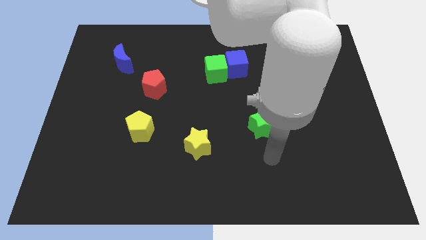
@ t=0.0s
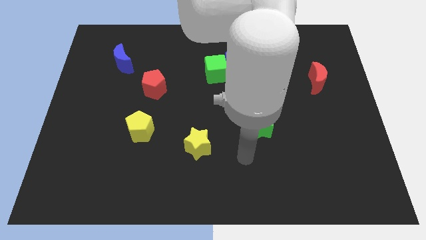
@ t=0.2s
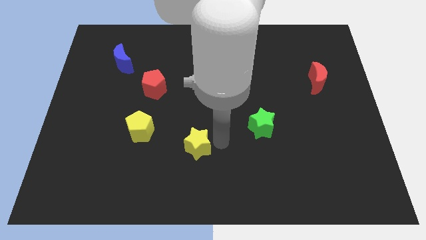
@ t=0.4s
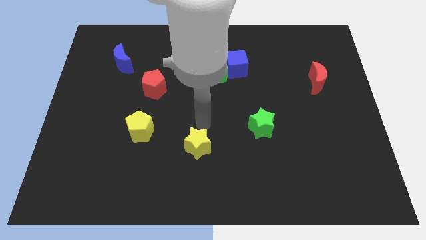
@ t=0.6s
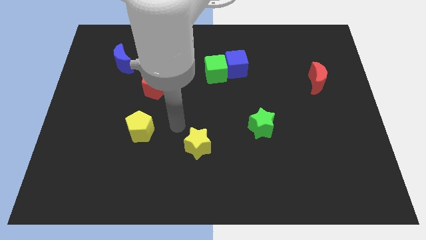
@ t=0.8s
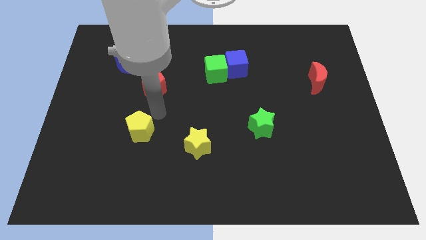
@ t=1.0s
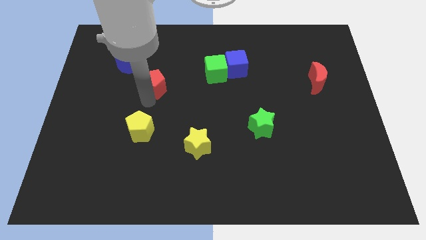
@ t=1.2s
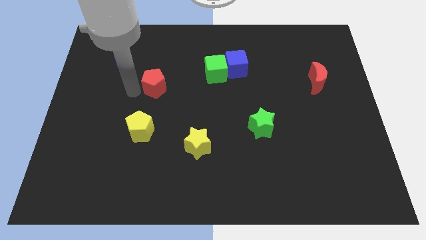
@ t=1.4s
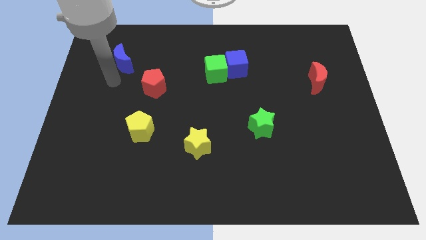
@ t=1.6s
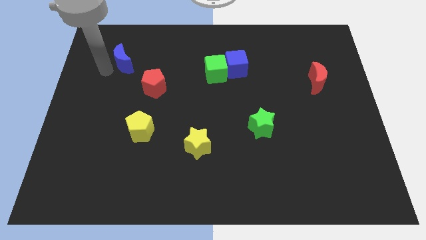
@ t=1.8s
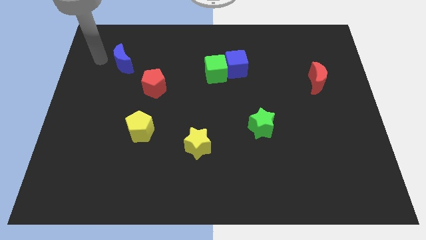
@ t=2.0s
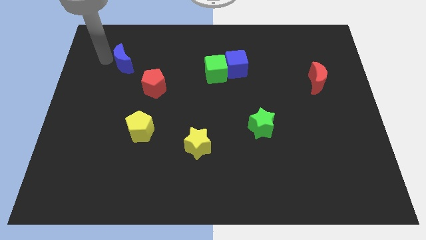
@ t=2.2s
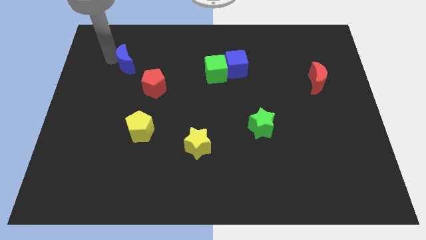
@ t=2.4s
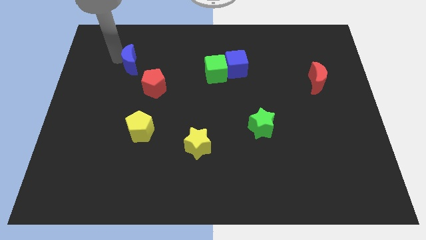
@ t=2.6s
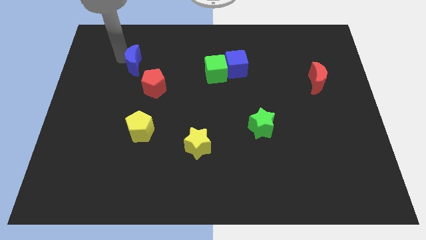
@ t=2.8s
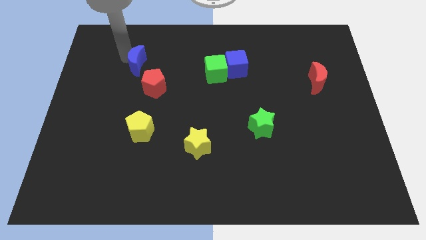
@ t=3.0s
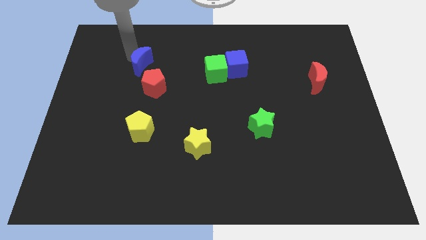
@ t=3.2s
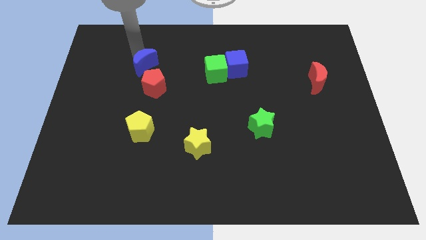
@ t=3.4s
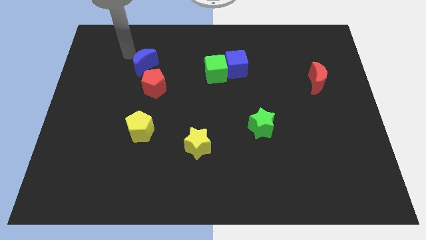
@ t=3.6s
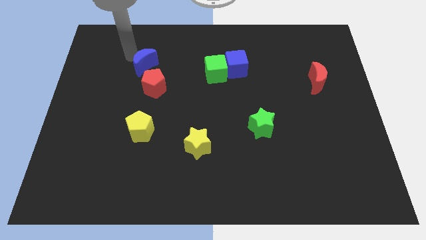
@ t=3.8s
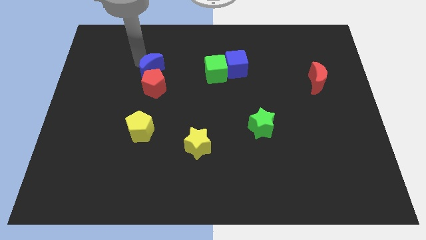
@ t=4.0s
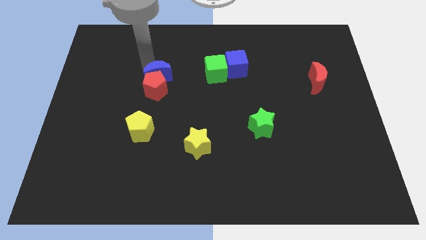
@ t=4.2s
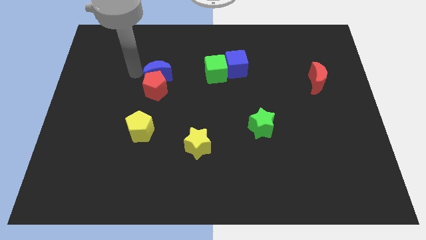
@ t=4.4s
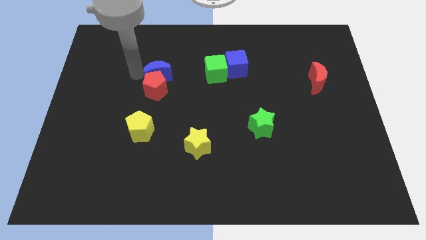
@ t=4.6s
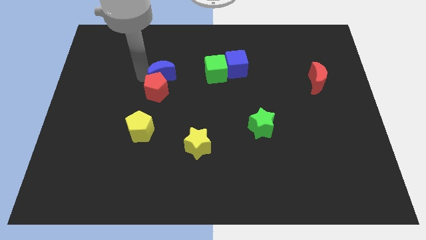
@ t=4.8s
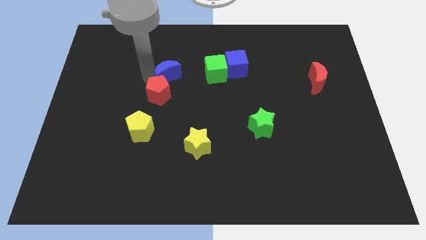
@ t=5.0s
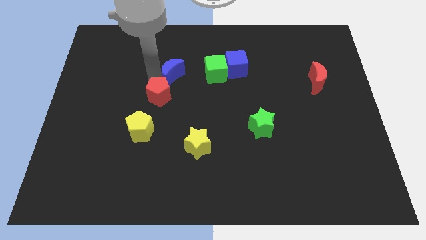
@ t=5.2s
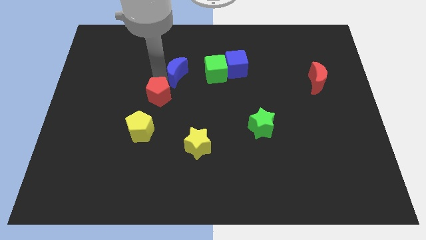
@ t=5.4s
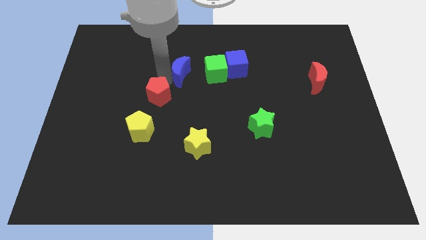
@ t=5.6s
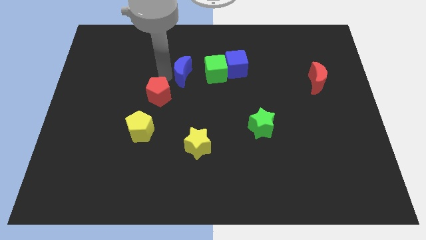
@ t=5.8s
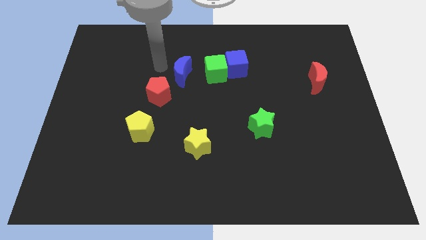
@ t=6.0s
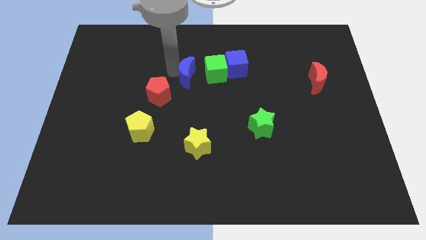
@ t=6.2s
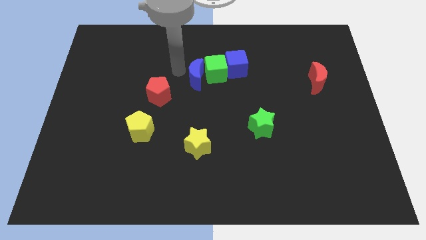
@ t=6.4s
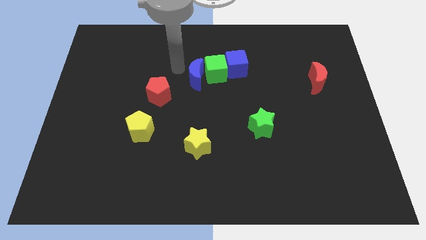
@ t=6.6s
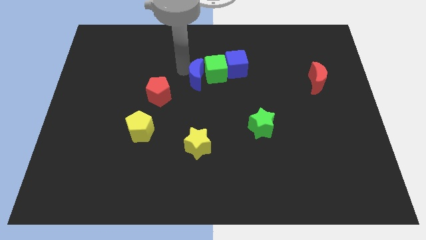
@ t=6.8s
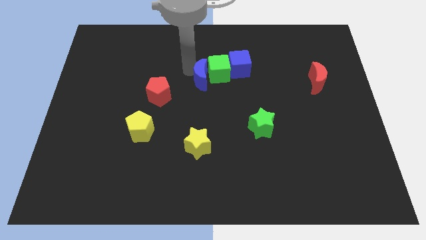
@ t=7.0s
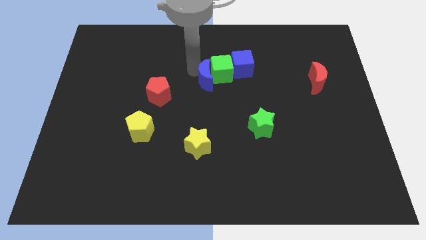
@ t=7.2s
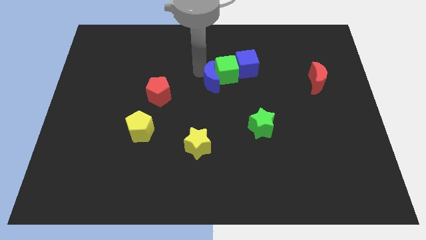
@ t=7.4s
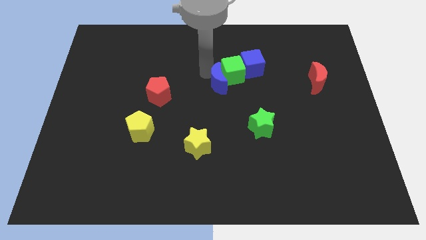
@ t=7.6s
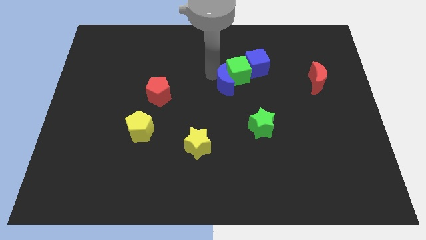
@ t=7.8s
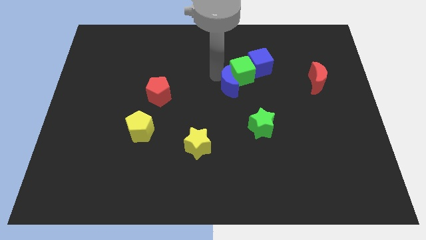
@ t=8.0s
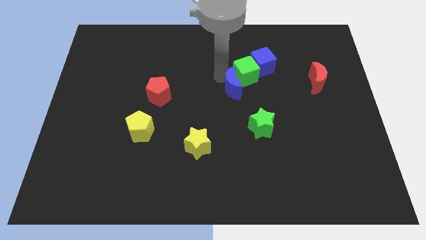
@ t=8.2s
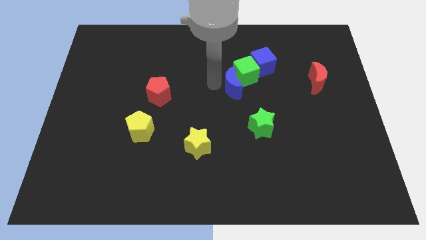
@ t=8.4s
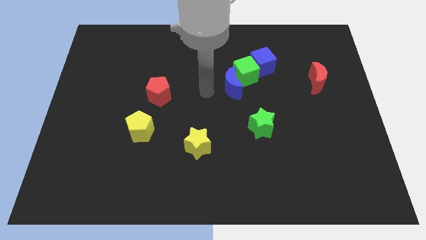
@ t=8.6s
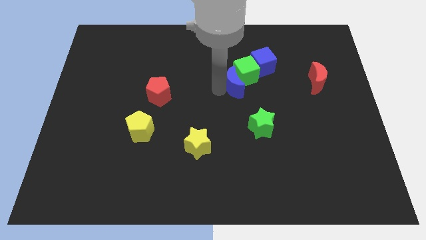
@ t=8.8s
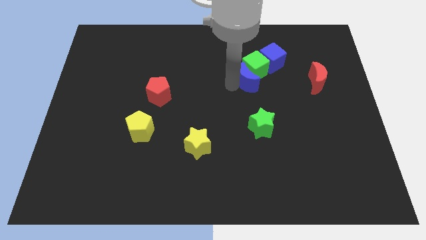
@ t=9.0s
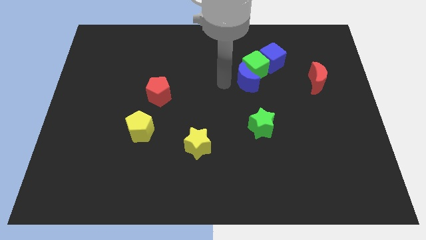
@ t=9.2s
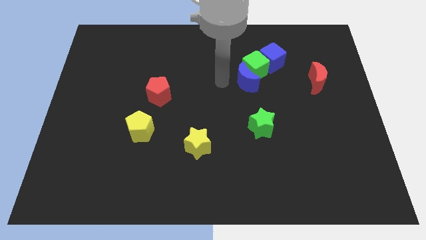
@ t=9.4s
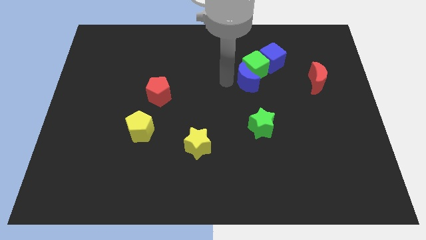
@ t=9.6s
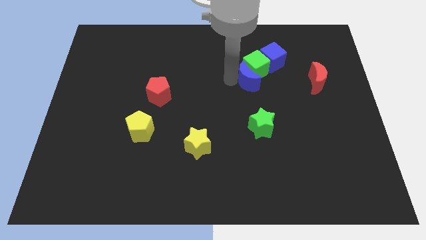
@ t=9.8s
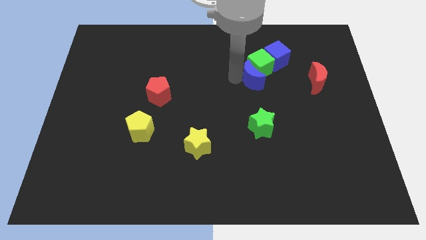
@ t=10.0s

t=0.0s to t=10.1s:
slide the blue moon left of the red moon

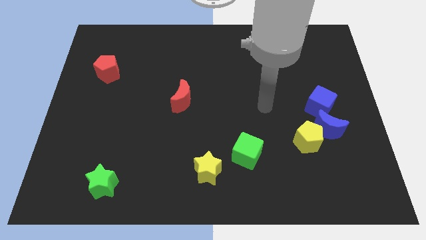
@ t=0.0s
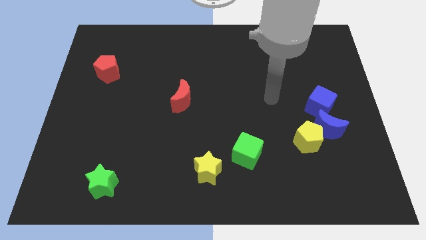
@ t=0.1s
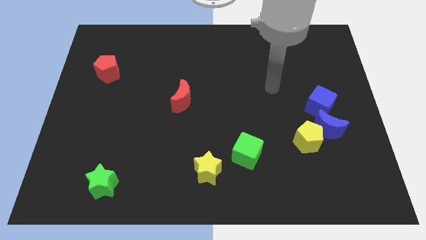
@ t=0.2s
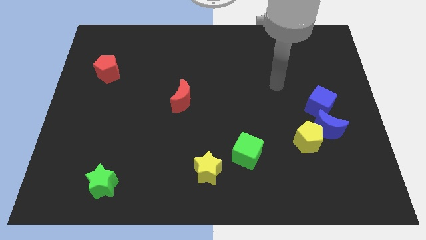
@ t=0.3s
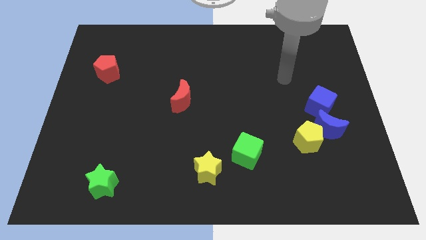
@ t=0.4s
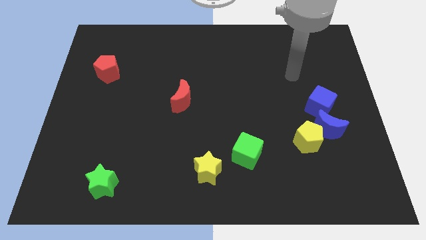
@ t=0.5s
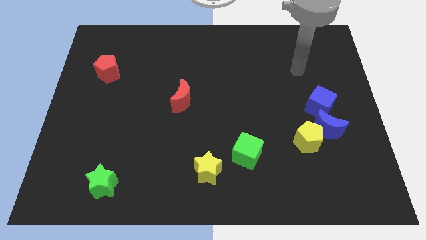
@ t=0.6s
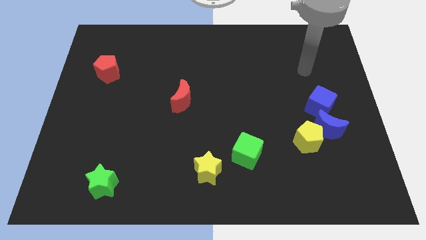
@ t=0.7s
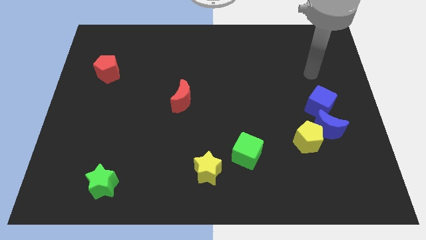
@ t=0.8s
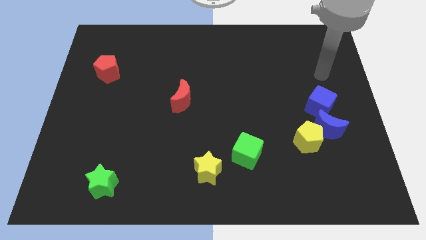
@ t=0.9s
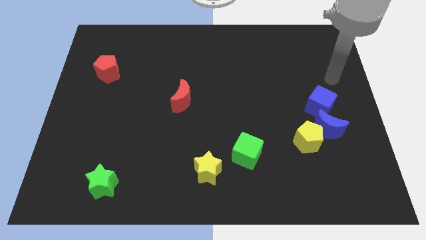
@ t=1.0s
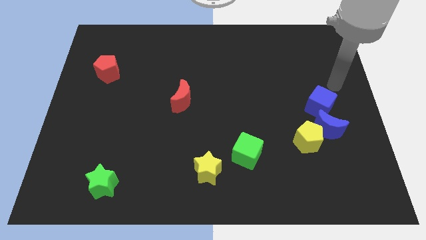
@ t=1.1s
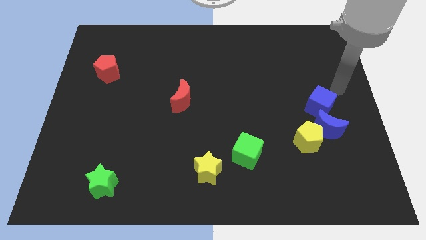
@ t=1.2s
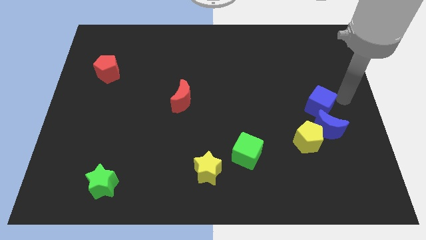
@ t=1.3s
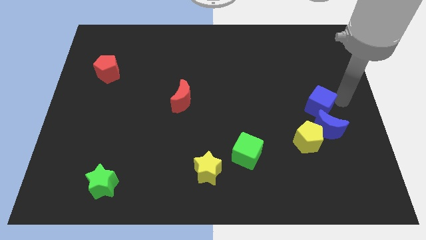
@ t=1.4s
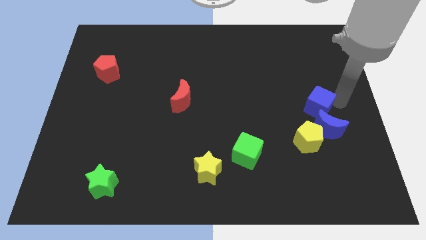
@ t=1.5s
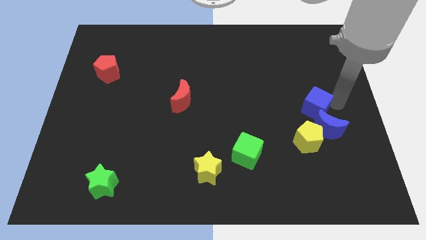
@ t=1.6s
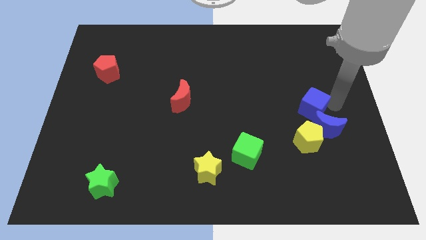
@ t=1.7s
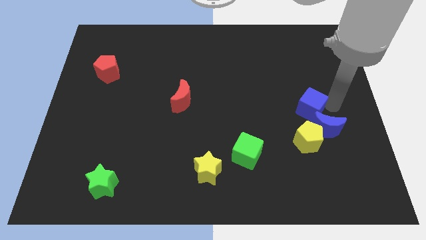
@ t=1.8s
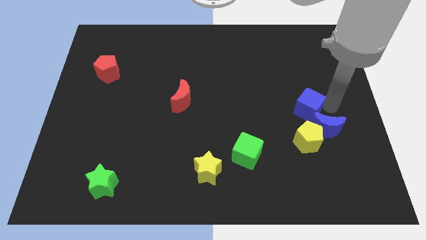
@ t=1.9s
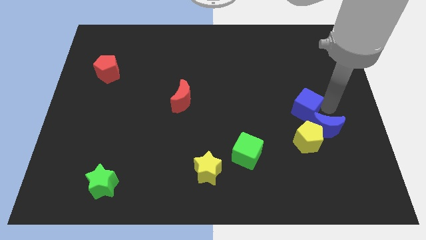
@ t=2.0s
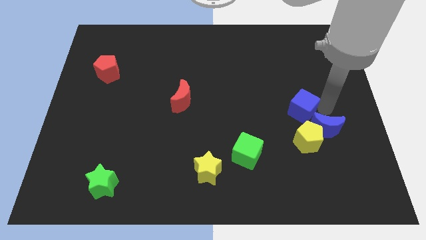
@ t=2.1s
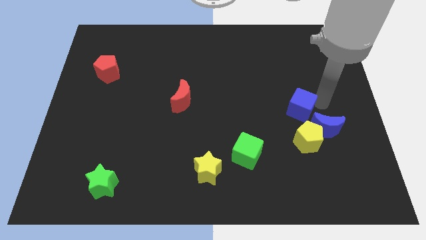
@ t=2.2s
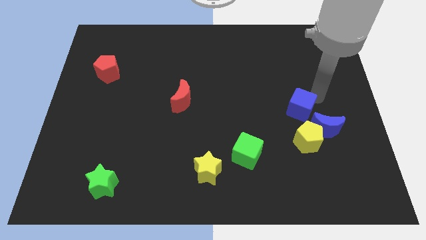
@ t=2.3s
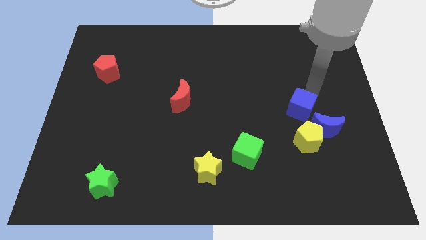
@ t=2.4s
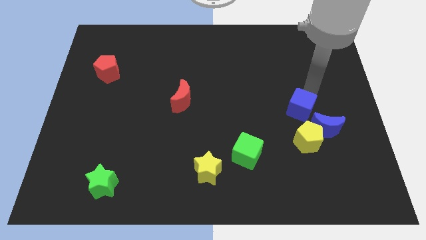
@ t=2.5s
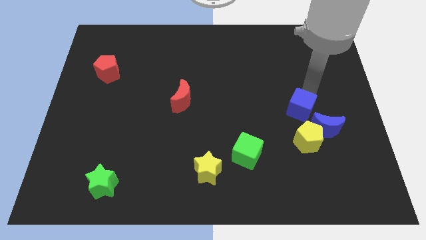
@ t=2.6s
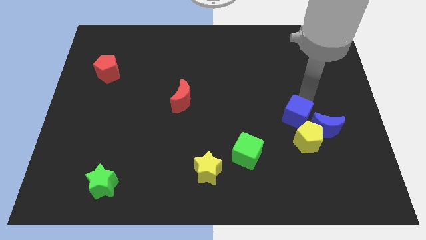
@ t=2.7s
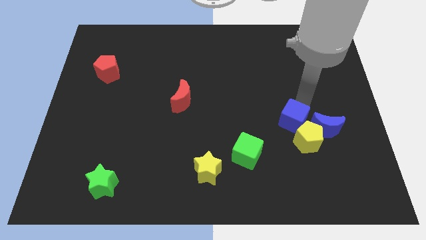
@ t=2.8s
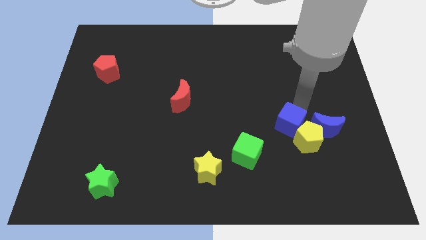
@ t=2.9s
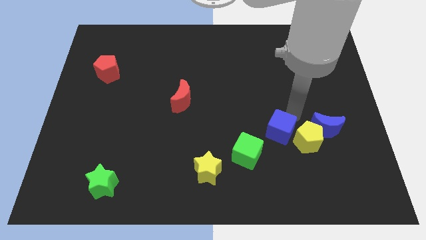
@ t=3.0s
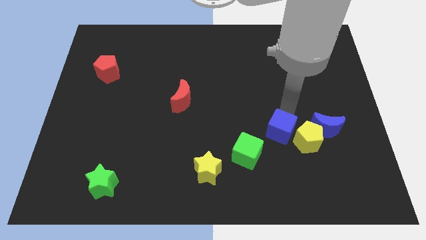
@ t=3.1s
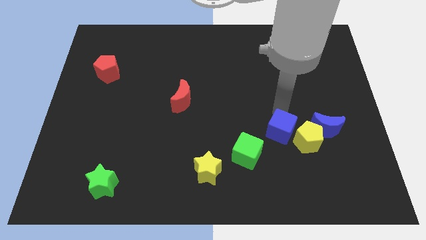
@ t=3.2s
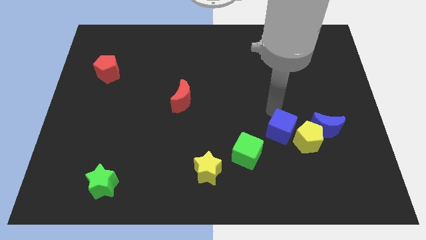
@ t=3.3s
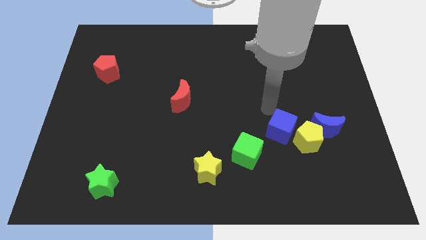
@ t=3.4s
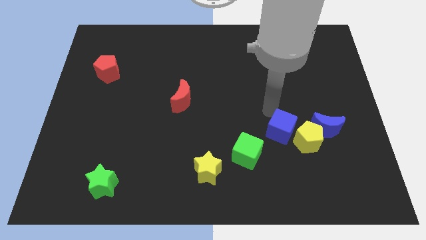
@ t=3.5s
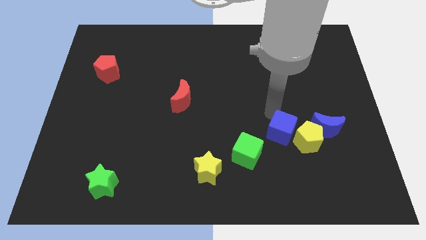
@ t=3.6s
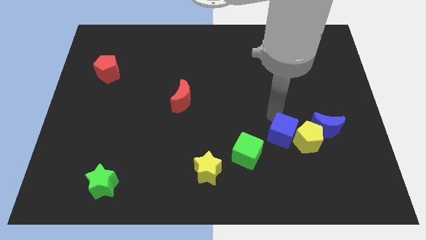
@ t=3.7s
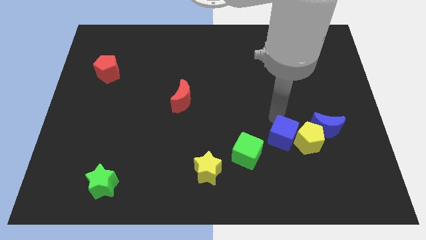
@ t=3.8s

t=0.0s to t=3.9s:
put the blue cube right of the green cube
